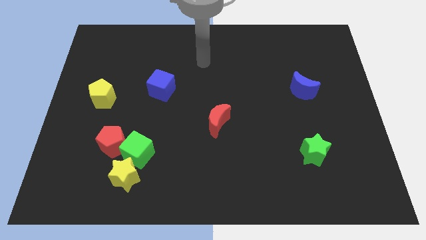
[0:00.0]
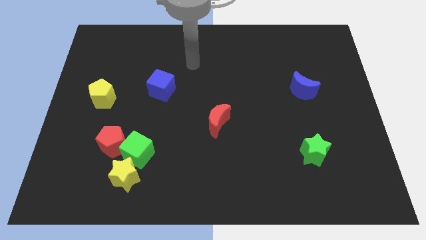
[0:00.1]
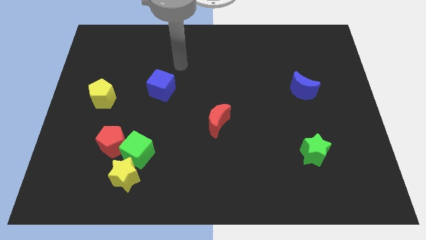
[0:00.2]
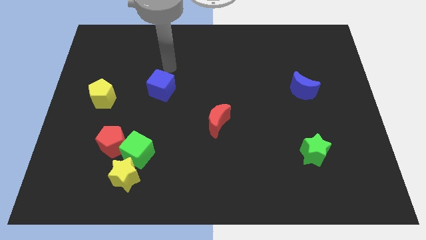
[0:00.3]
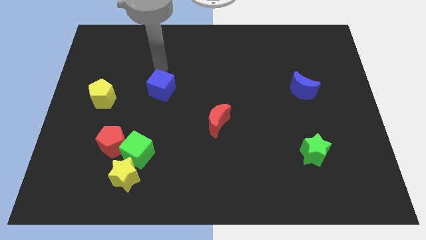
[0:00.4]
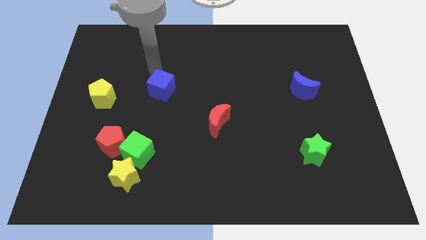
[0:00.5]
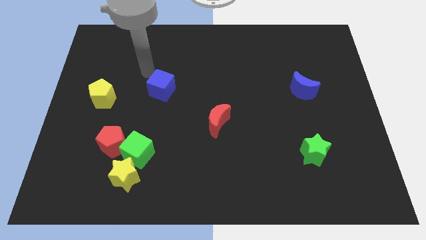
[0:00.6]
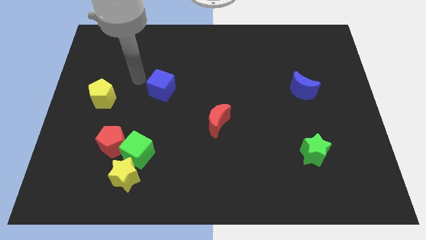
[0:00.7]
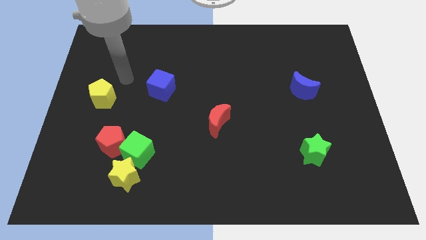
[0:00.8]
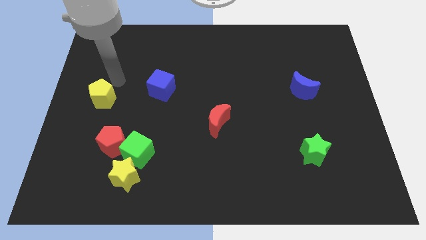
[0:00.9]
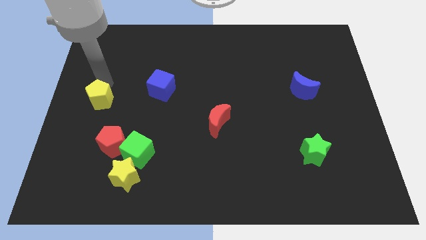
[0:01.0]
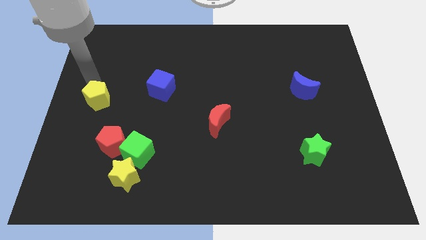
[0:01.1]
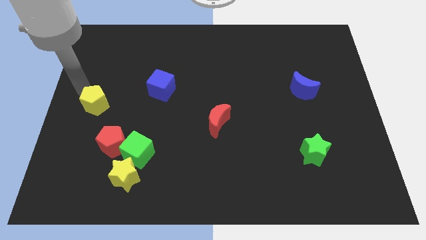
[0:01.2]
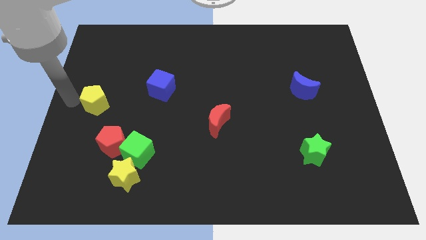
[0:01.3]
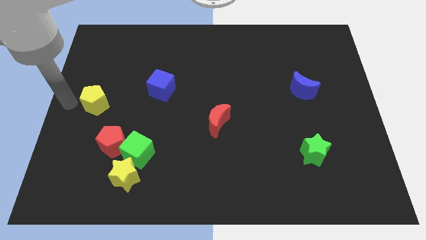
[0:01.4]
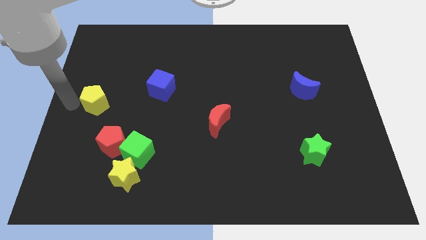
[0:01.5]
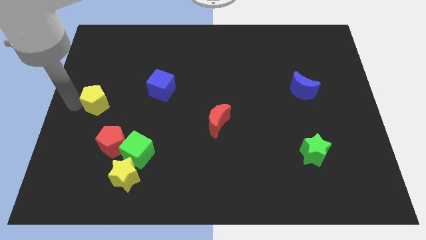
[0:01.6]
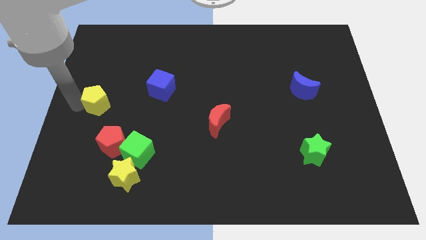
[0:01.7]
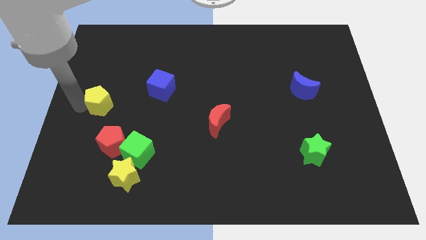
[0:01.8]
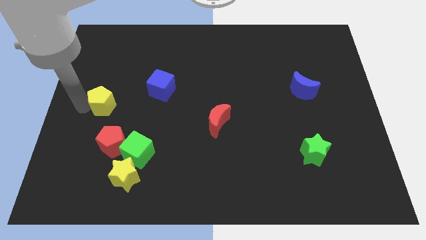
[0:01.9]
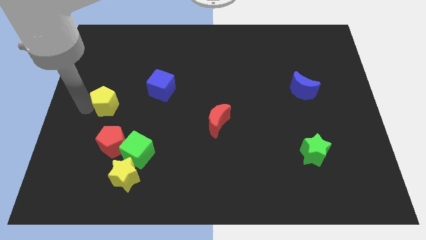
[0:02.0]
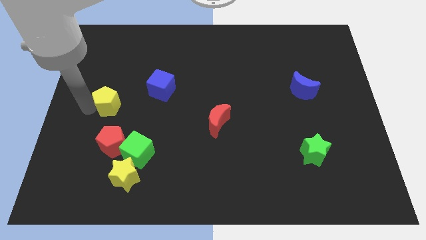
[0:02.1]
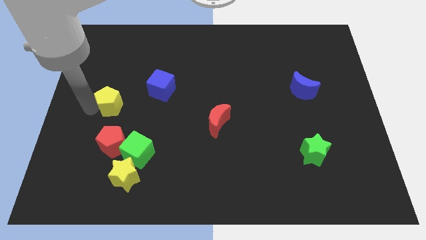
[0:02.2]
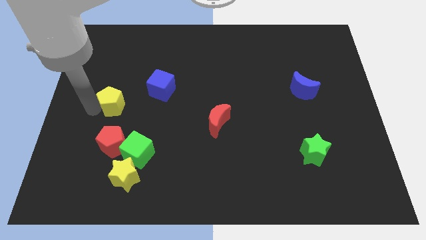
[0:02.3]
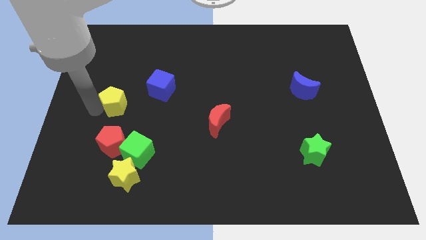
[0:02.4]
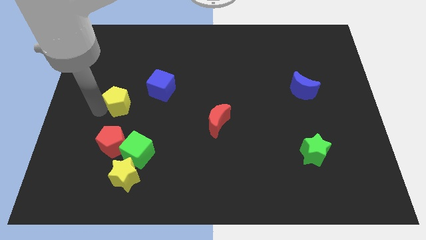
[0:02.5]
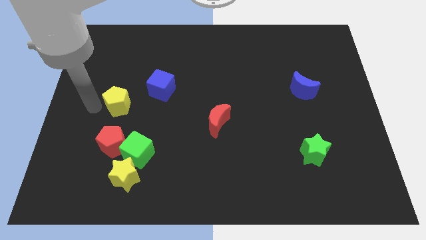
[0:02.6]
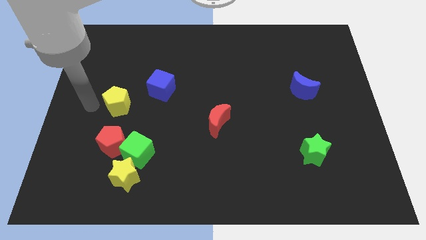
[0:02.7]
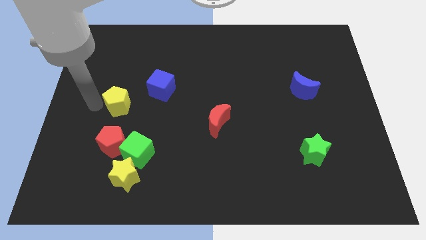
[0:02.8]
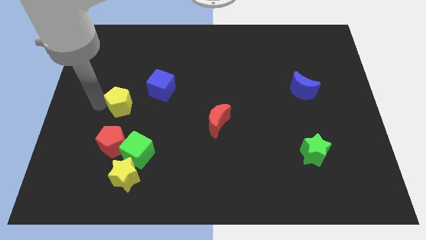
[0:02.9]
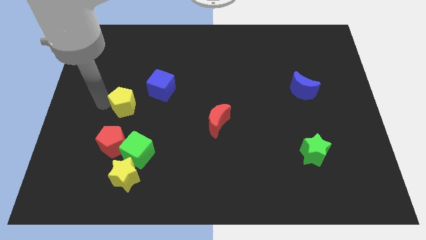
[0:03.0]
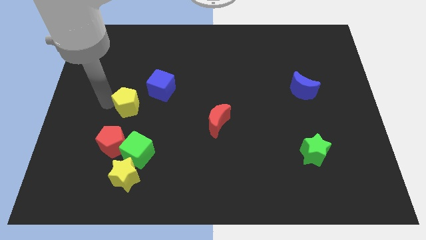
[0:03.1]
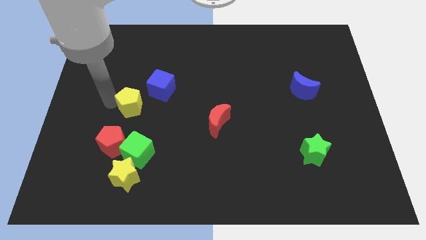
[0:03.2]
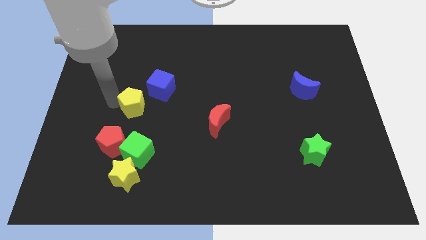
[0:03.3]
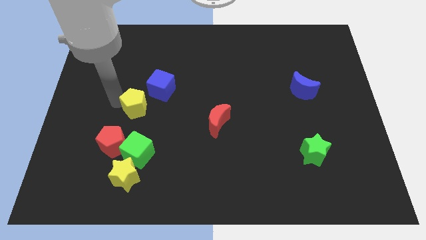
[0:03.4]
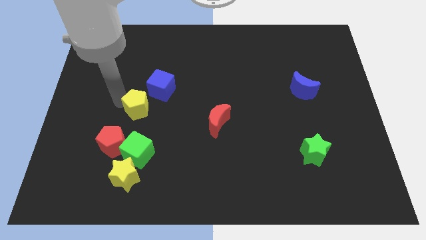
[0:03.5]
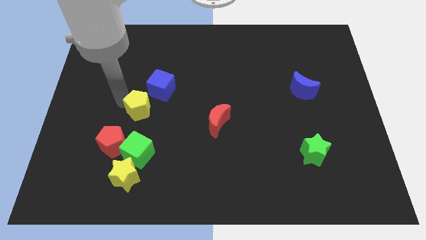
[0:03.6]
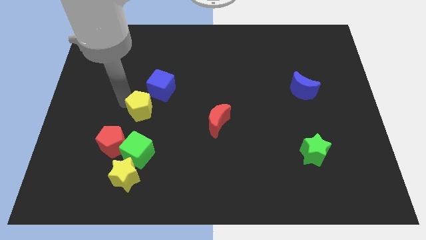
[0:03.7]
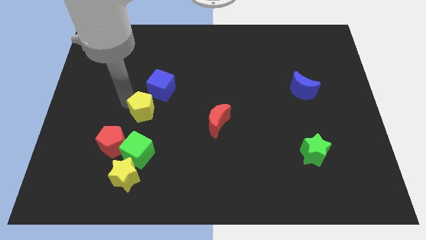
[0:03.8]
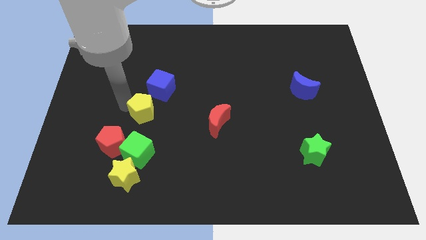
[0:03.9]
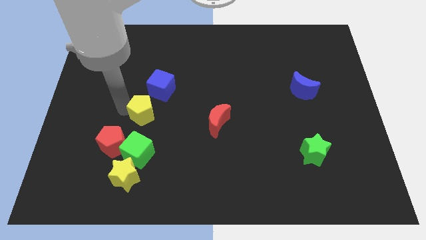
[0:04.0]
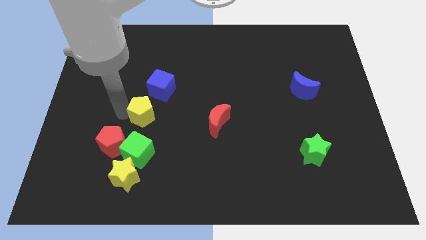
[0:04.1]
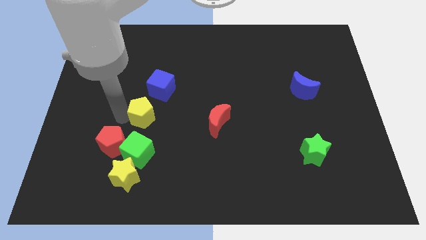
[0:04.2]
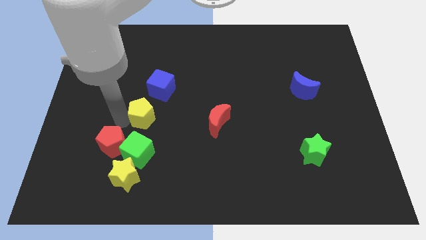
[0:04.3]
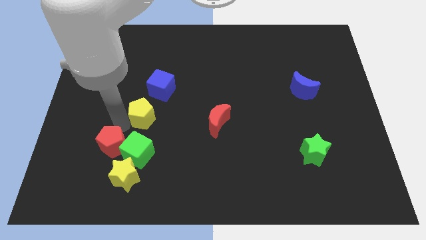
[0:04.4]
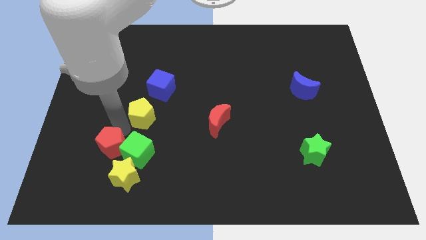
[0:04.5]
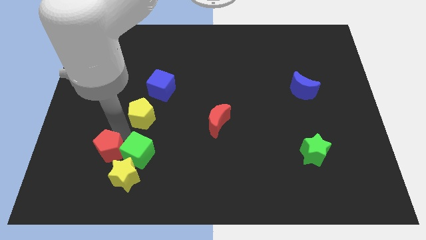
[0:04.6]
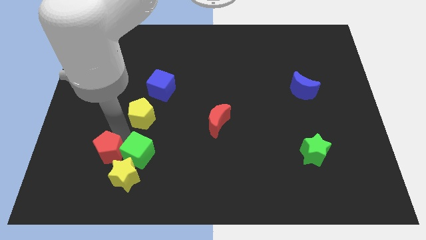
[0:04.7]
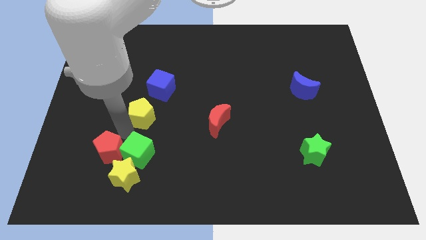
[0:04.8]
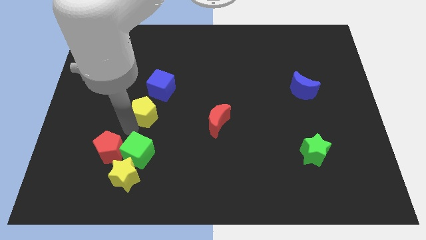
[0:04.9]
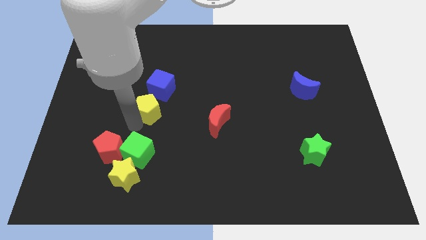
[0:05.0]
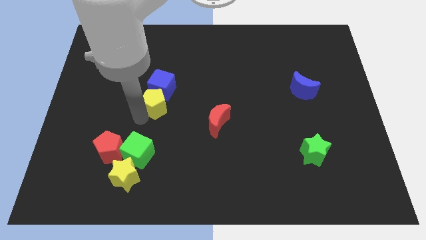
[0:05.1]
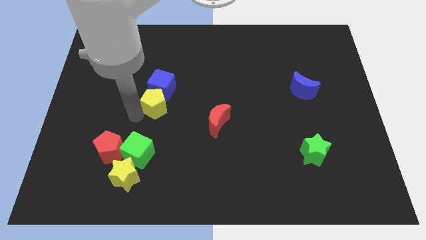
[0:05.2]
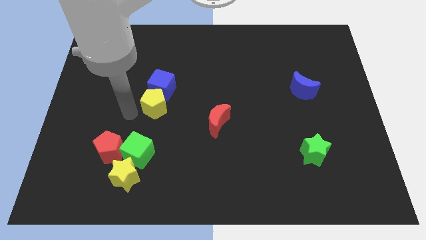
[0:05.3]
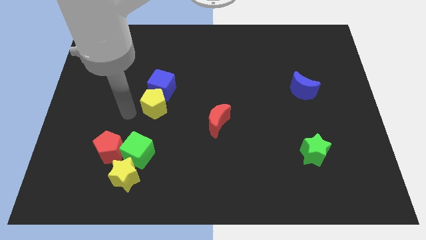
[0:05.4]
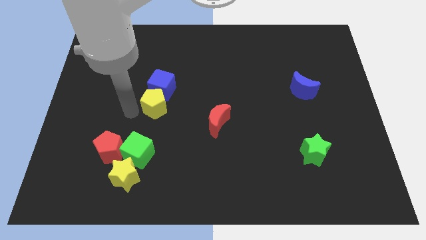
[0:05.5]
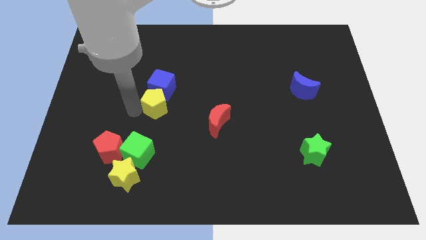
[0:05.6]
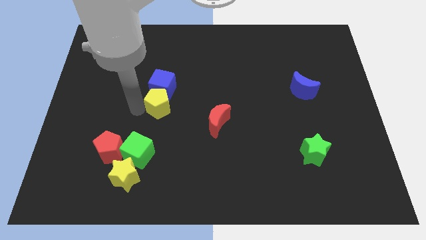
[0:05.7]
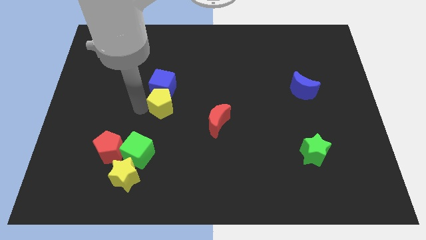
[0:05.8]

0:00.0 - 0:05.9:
slide the yellow pentagon to the center

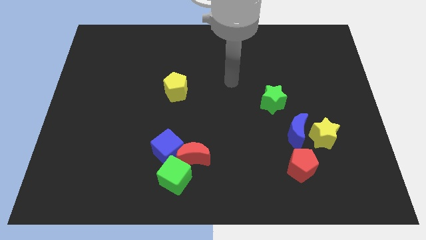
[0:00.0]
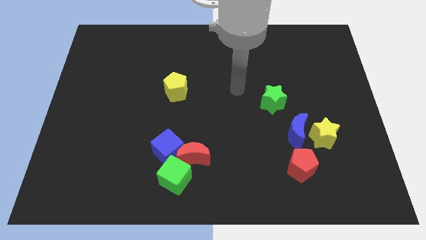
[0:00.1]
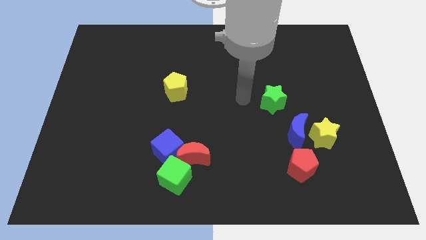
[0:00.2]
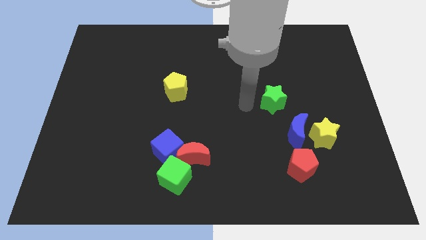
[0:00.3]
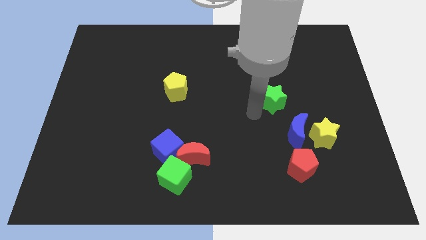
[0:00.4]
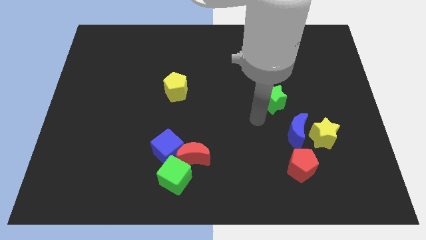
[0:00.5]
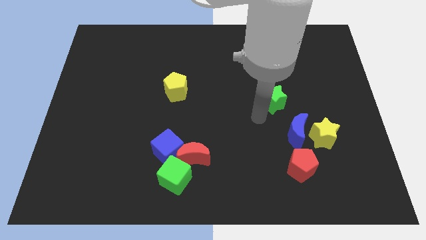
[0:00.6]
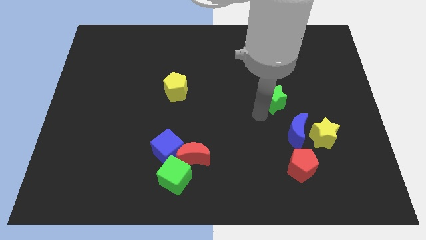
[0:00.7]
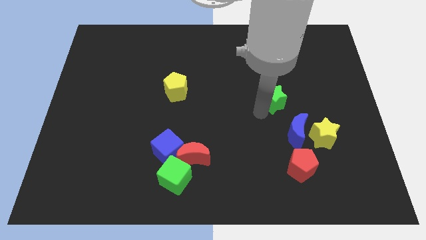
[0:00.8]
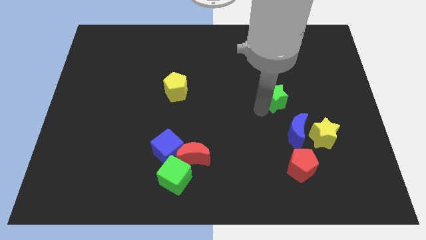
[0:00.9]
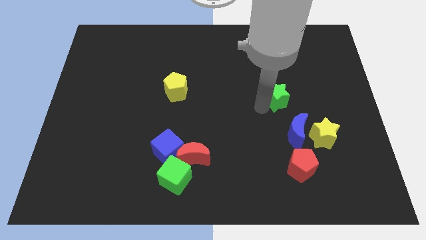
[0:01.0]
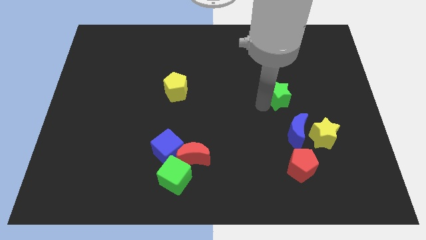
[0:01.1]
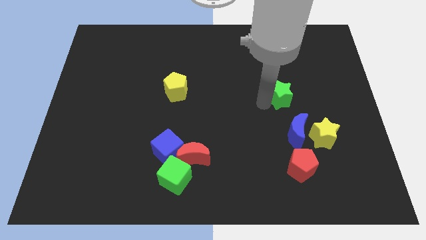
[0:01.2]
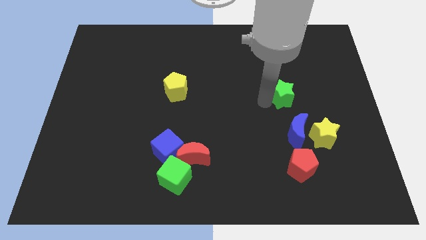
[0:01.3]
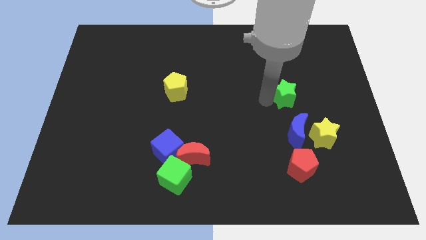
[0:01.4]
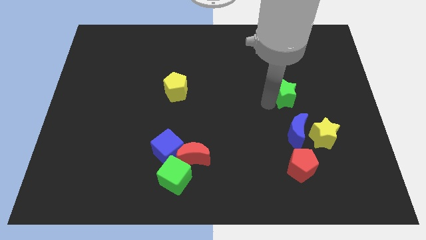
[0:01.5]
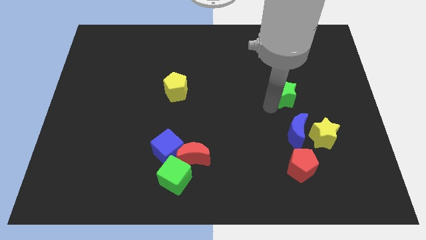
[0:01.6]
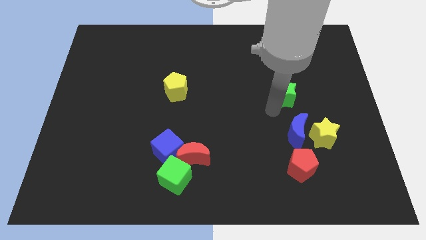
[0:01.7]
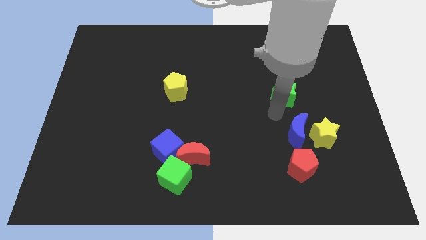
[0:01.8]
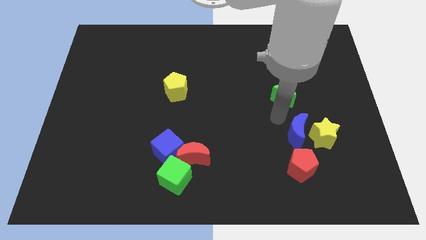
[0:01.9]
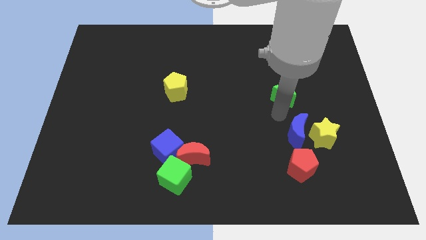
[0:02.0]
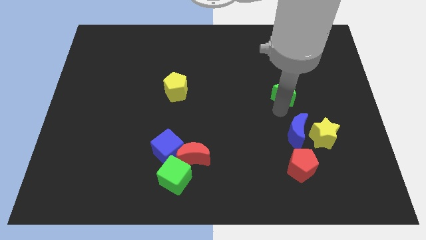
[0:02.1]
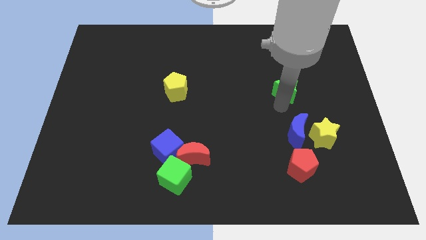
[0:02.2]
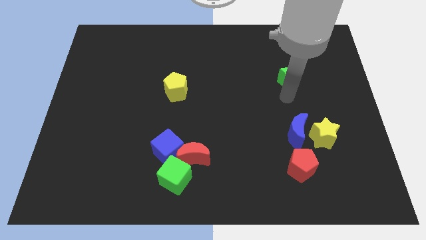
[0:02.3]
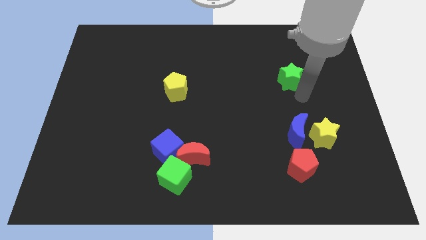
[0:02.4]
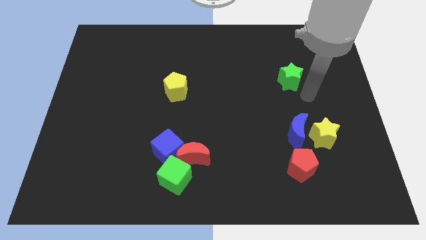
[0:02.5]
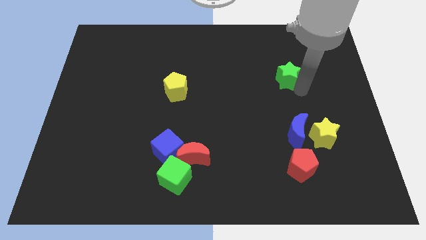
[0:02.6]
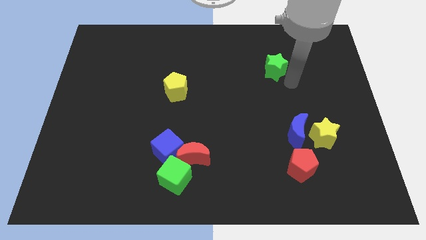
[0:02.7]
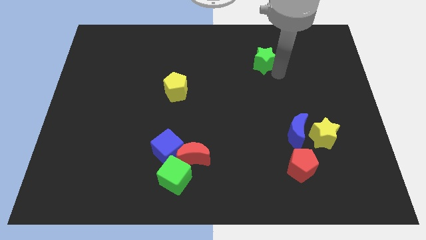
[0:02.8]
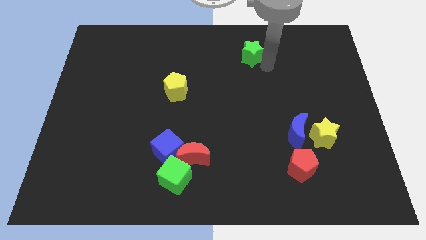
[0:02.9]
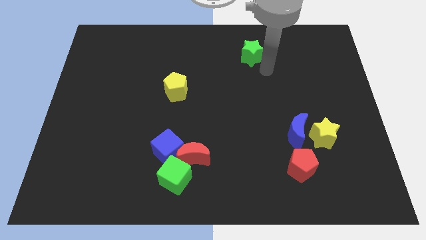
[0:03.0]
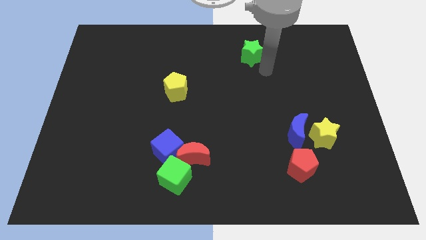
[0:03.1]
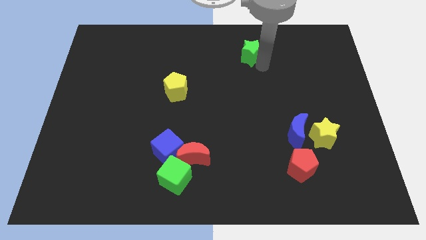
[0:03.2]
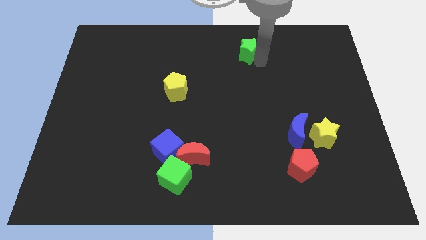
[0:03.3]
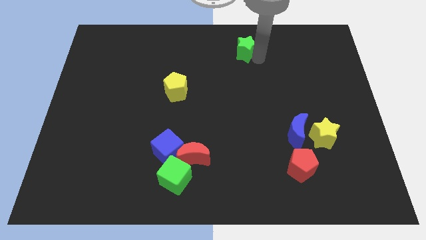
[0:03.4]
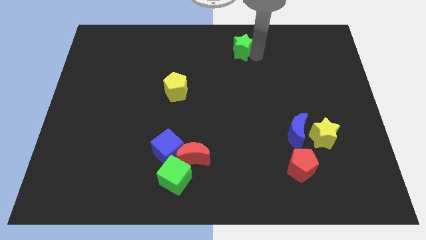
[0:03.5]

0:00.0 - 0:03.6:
put the green star to the towards your base
